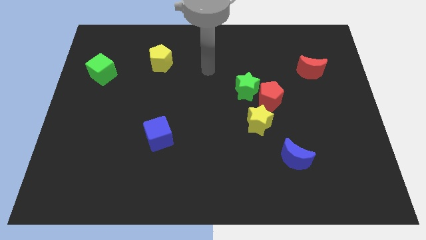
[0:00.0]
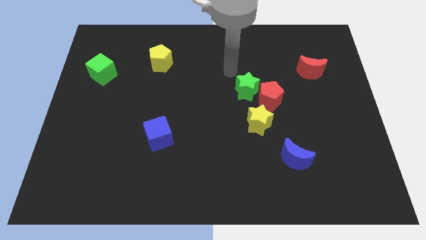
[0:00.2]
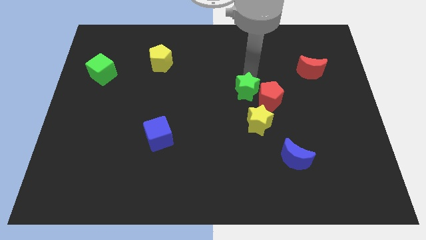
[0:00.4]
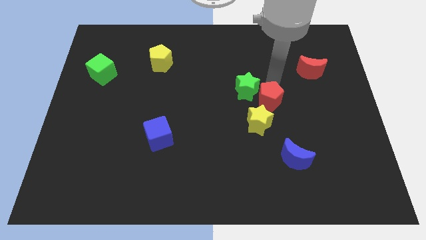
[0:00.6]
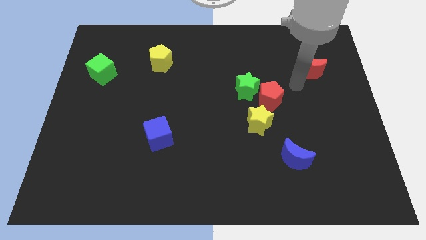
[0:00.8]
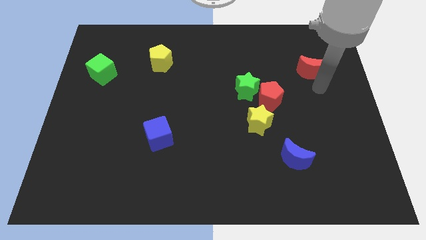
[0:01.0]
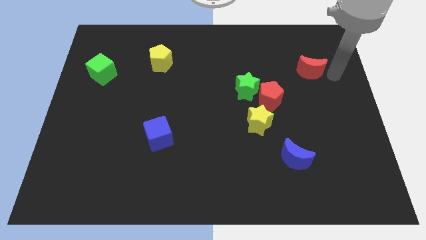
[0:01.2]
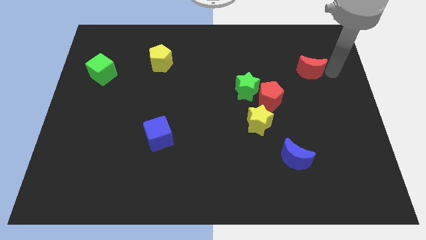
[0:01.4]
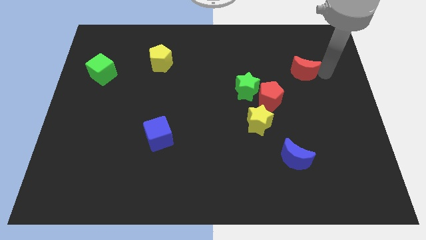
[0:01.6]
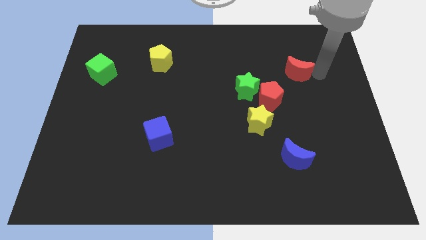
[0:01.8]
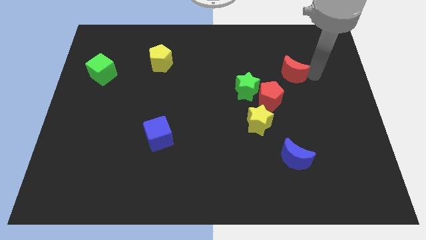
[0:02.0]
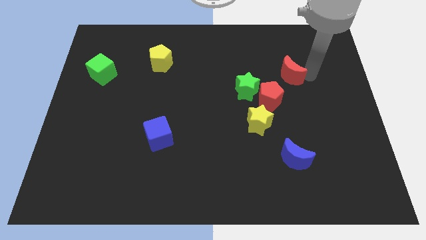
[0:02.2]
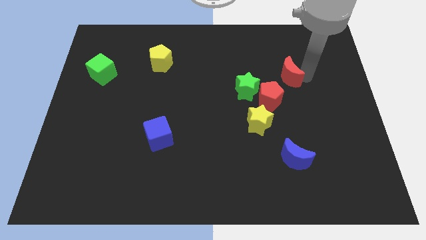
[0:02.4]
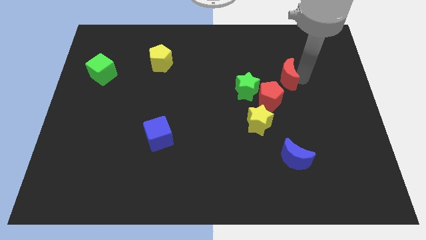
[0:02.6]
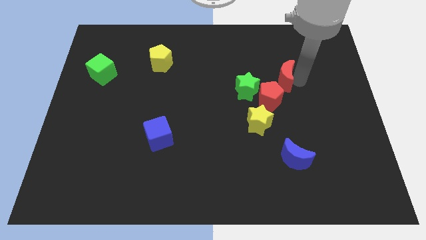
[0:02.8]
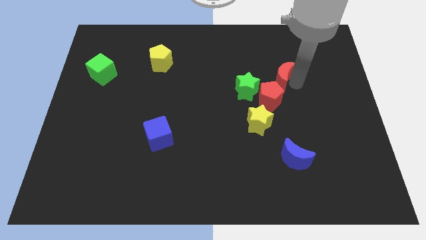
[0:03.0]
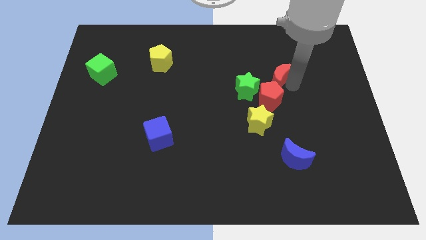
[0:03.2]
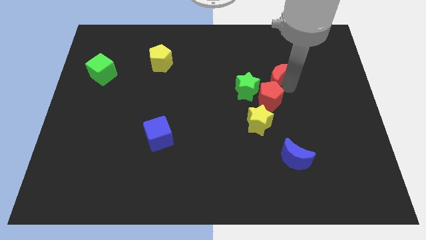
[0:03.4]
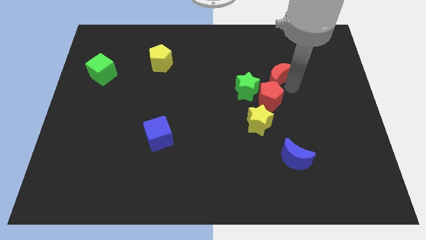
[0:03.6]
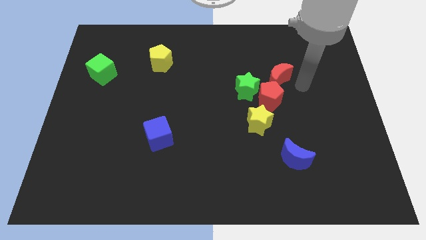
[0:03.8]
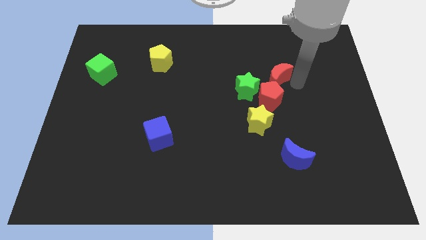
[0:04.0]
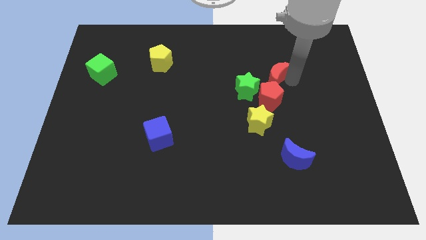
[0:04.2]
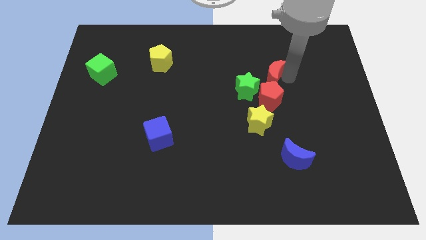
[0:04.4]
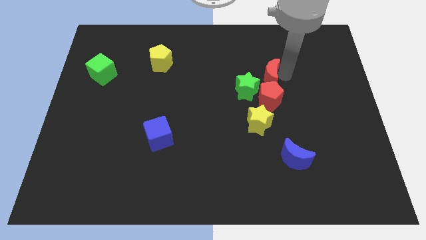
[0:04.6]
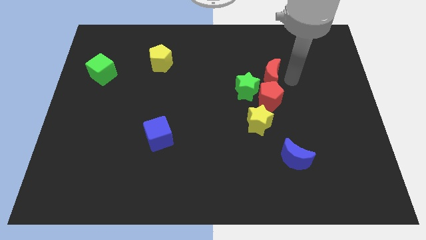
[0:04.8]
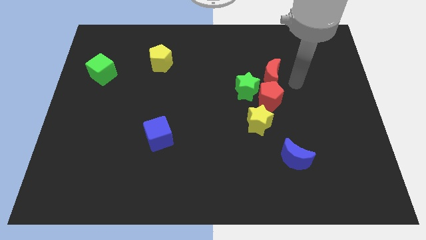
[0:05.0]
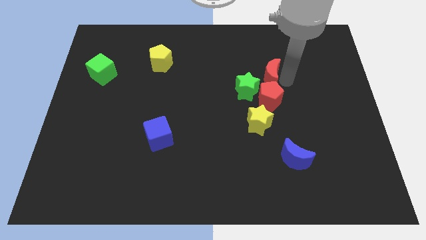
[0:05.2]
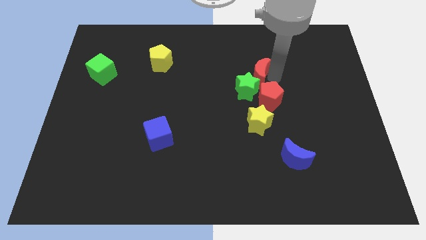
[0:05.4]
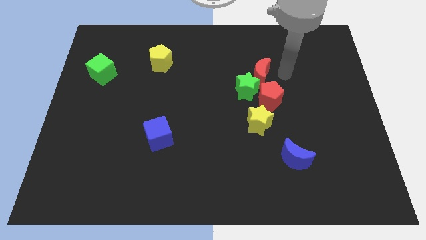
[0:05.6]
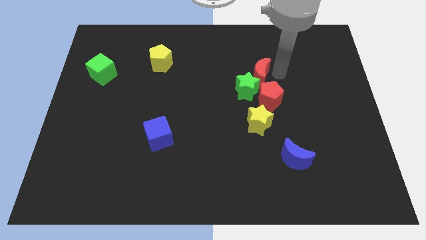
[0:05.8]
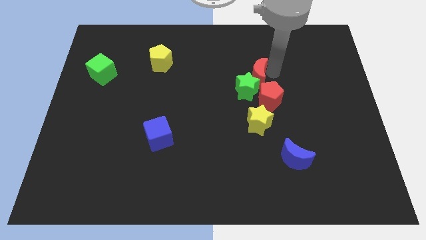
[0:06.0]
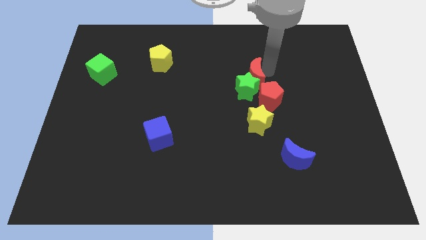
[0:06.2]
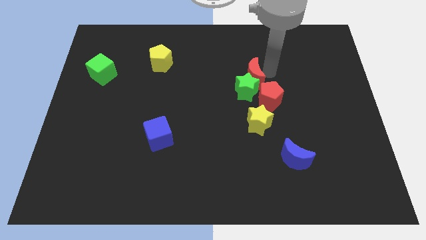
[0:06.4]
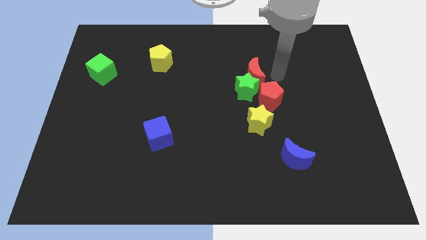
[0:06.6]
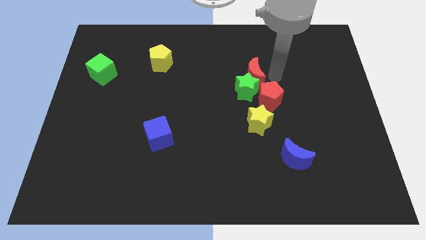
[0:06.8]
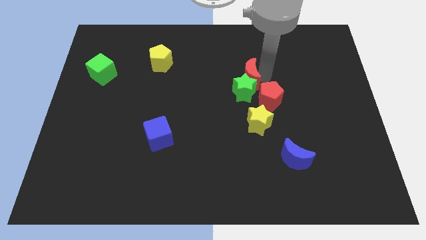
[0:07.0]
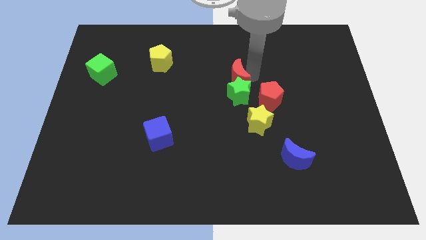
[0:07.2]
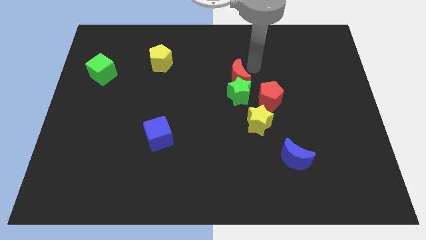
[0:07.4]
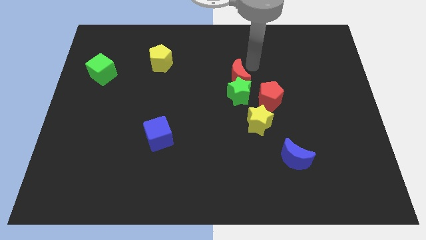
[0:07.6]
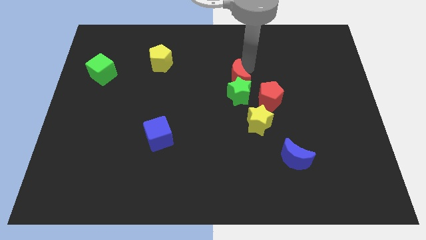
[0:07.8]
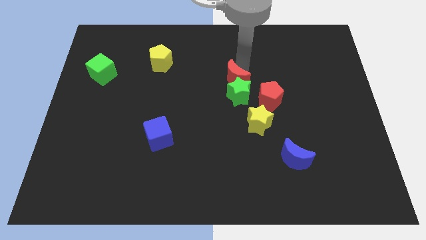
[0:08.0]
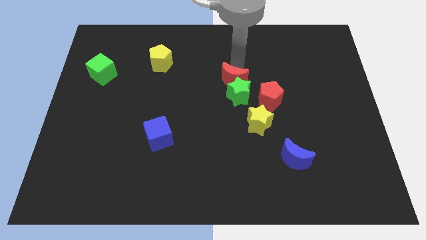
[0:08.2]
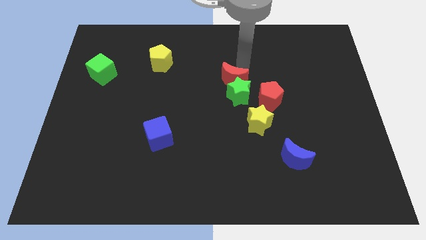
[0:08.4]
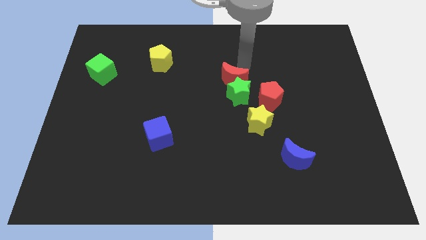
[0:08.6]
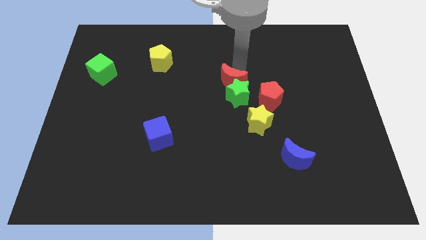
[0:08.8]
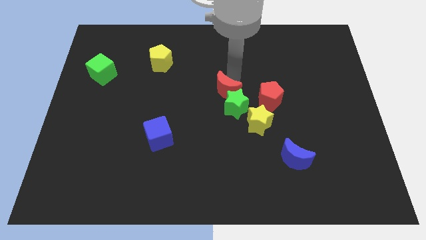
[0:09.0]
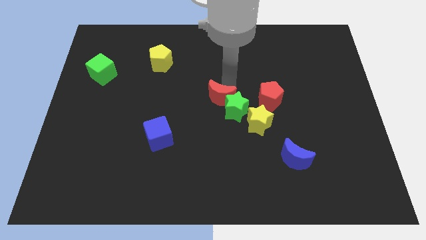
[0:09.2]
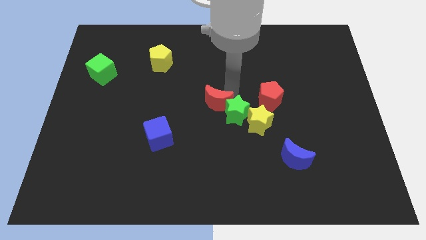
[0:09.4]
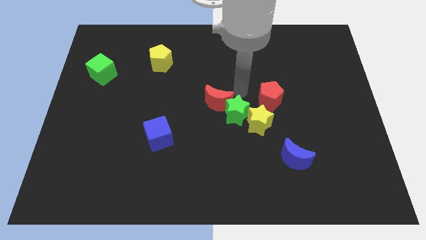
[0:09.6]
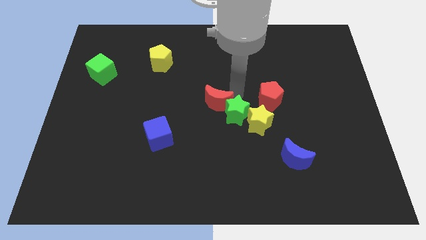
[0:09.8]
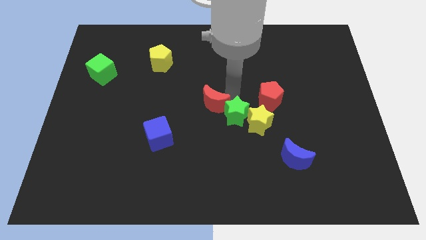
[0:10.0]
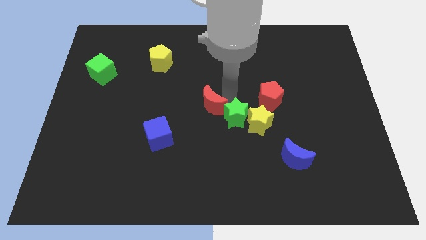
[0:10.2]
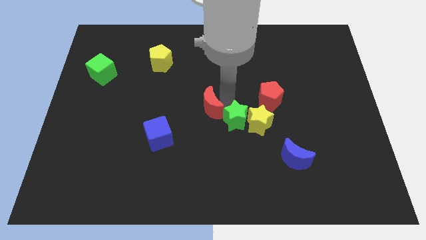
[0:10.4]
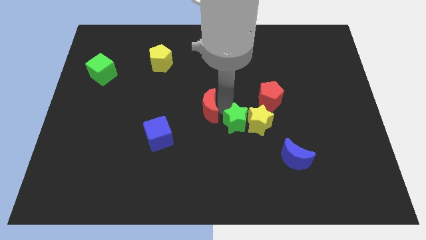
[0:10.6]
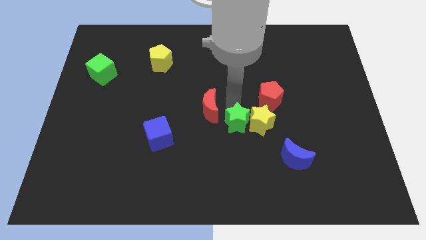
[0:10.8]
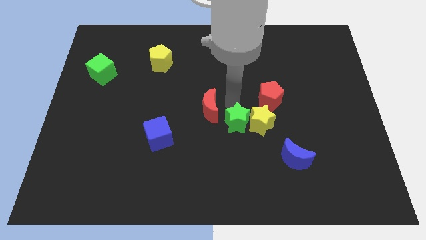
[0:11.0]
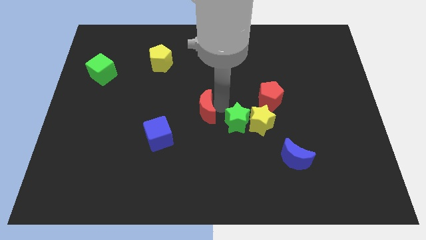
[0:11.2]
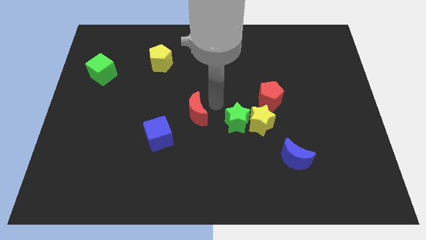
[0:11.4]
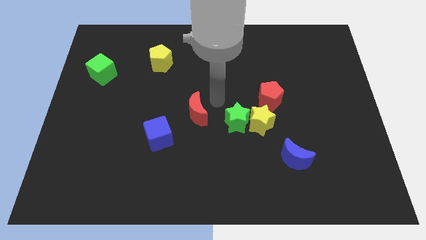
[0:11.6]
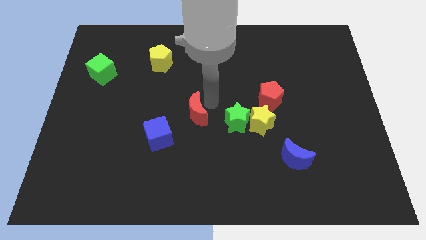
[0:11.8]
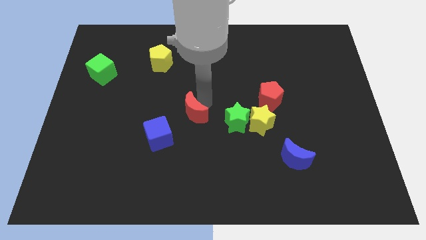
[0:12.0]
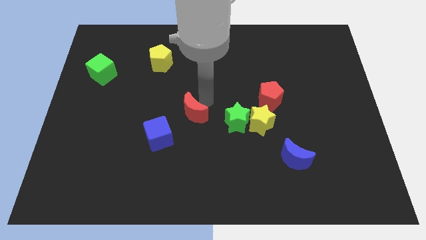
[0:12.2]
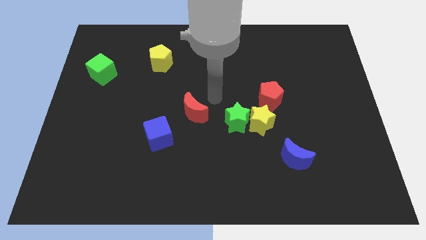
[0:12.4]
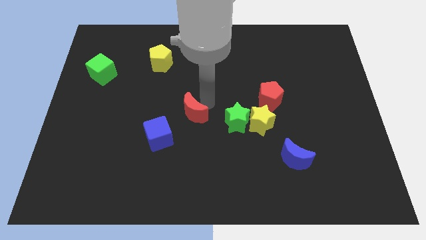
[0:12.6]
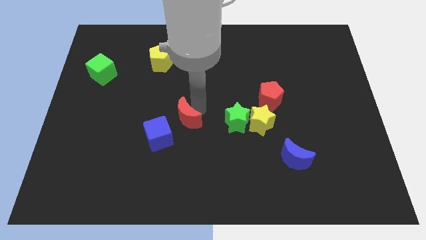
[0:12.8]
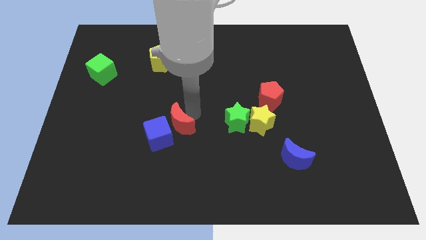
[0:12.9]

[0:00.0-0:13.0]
slide the red moon towards the blue cube
